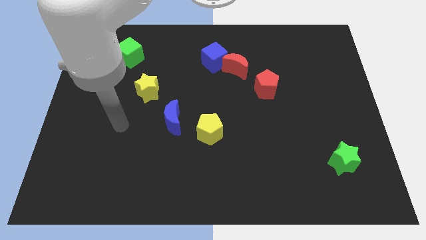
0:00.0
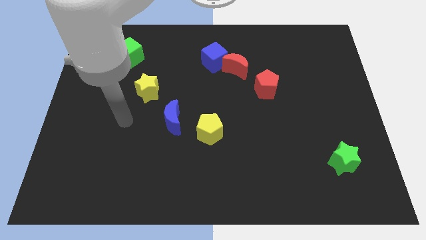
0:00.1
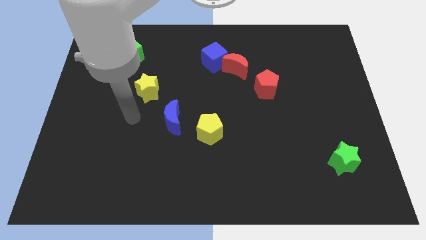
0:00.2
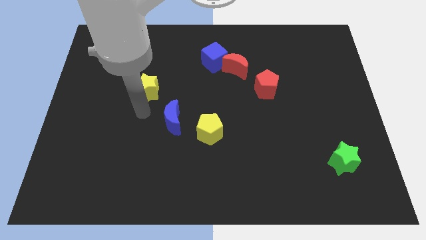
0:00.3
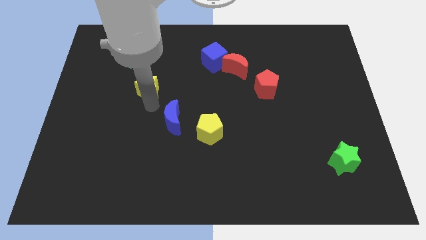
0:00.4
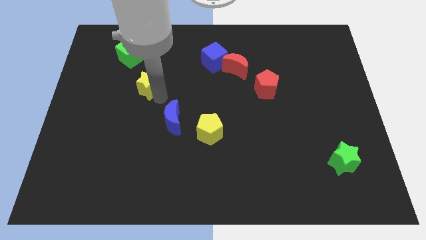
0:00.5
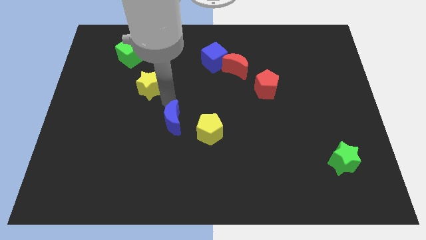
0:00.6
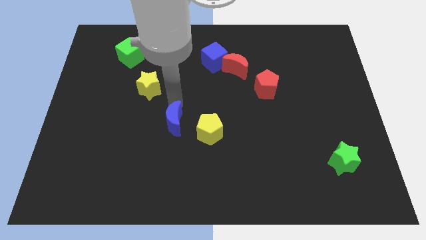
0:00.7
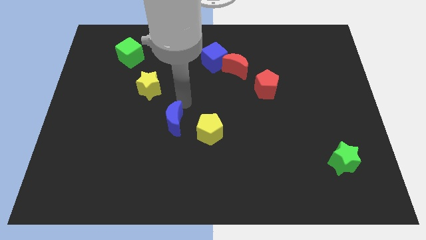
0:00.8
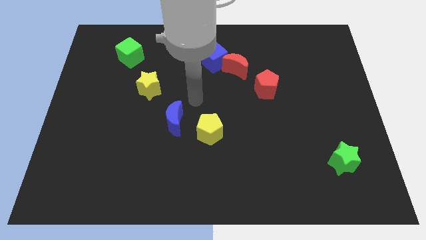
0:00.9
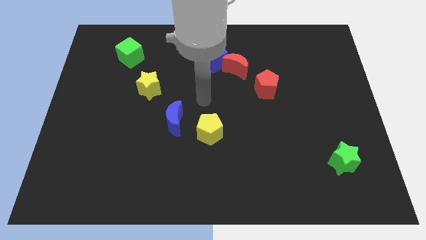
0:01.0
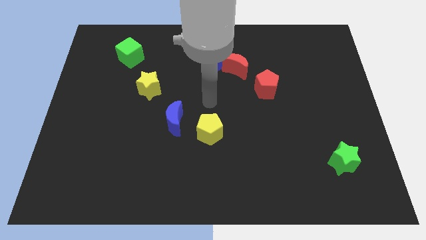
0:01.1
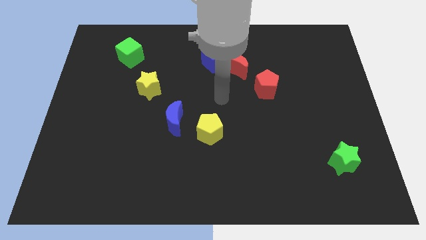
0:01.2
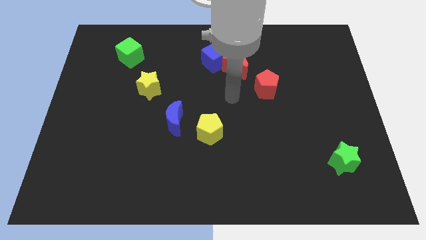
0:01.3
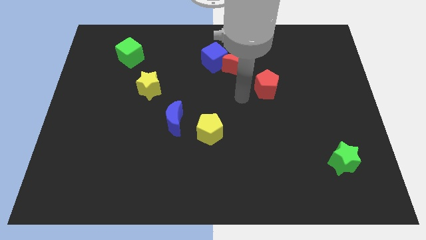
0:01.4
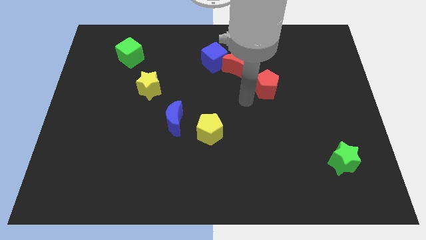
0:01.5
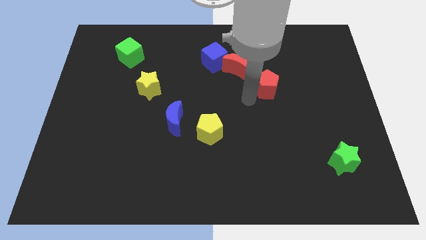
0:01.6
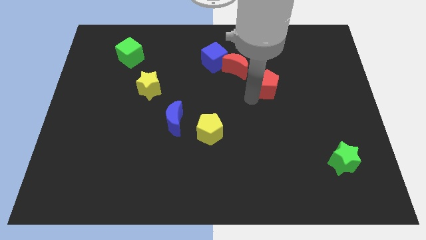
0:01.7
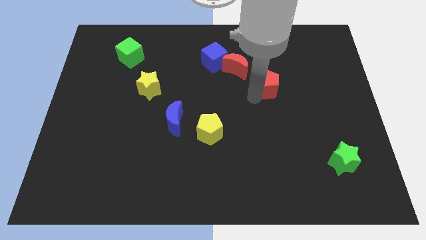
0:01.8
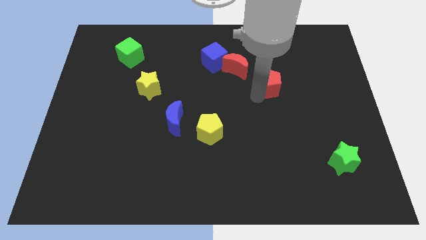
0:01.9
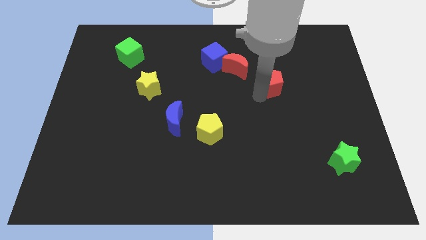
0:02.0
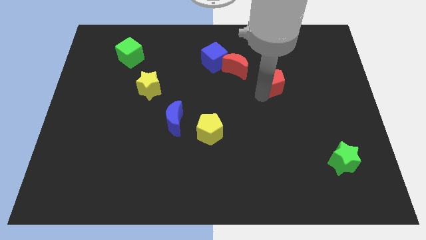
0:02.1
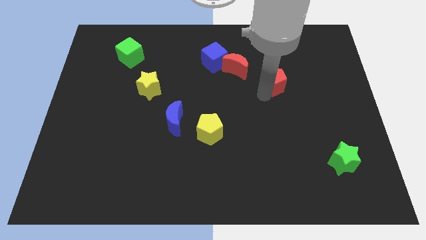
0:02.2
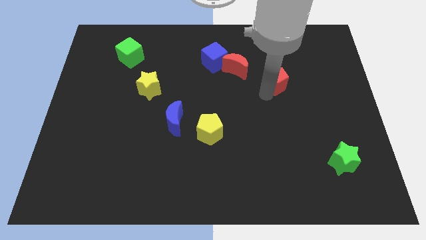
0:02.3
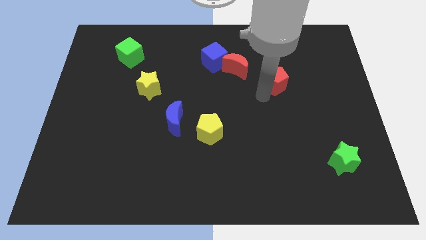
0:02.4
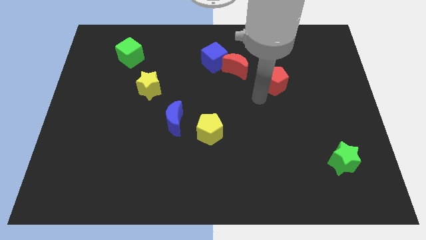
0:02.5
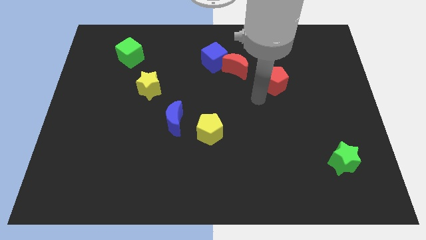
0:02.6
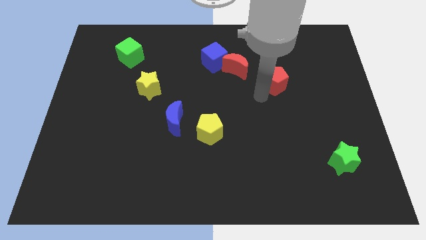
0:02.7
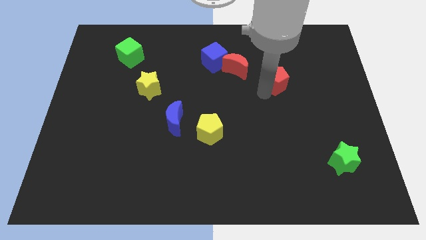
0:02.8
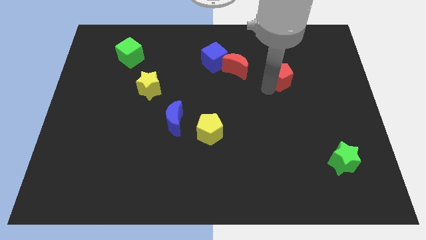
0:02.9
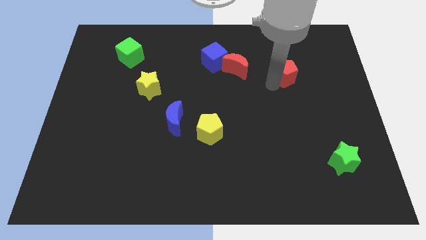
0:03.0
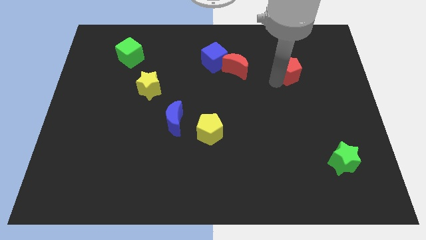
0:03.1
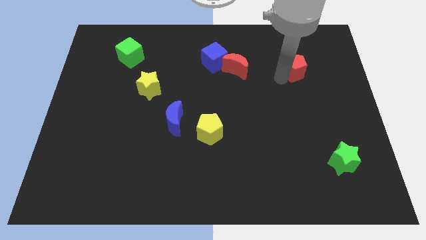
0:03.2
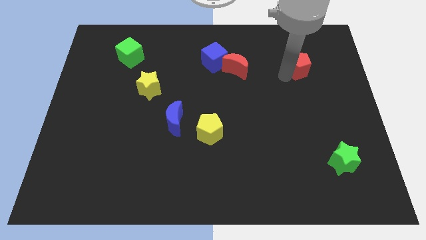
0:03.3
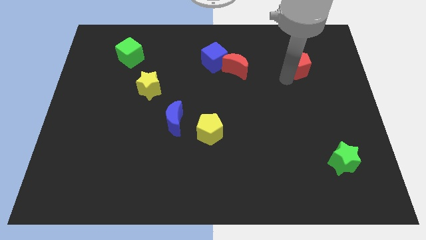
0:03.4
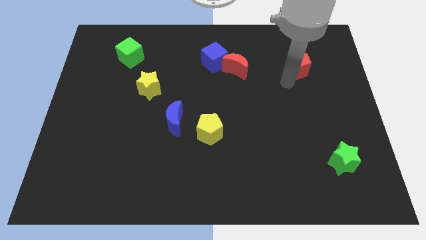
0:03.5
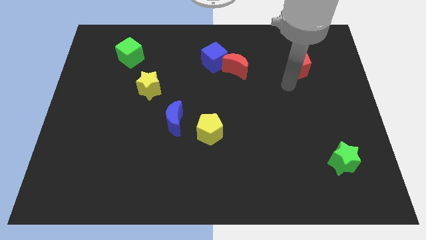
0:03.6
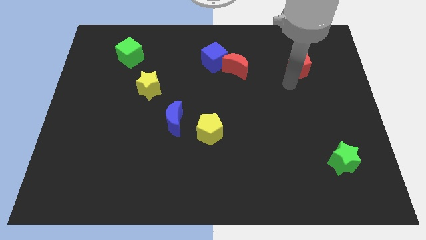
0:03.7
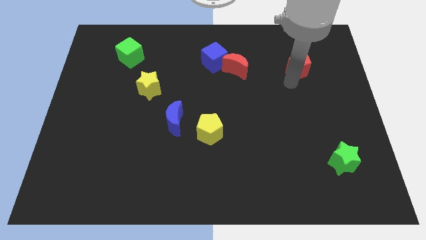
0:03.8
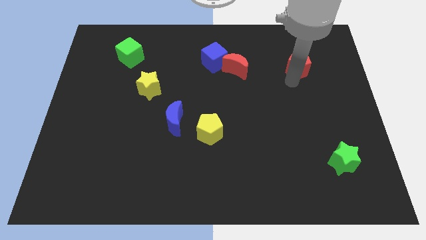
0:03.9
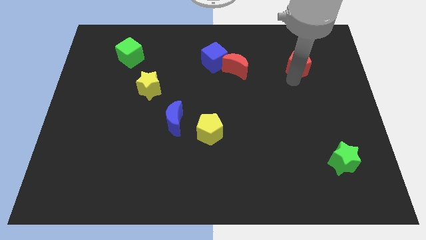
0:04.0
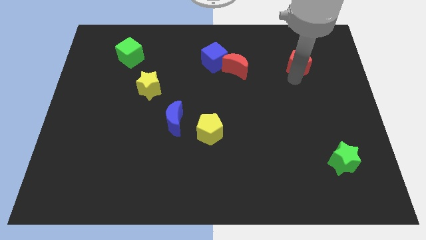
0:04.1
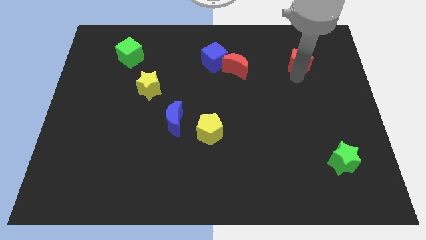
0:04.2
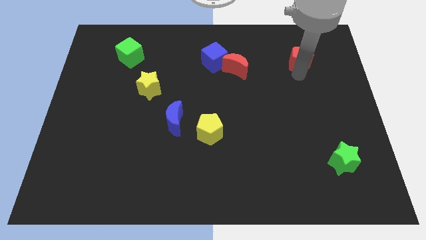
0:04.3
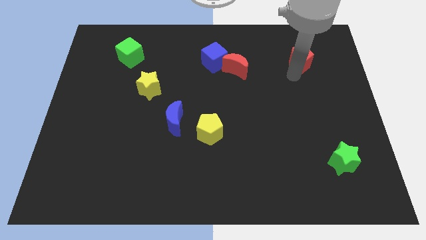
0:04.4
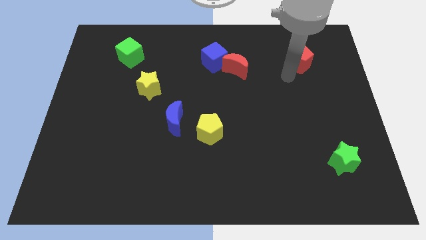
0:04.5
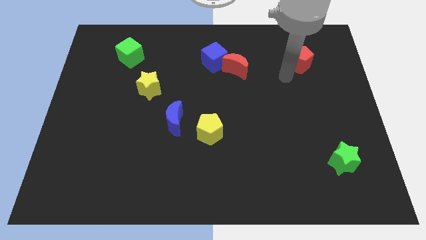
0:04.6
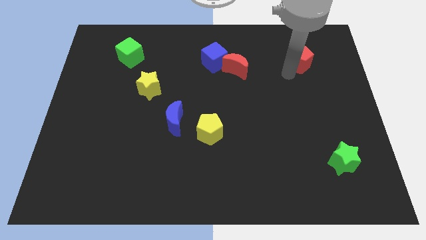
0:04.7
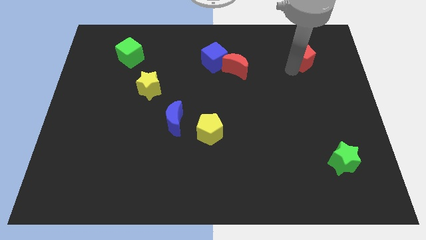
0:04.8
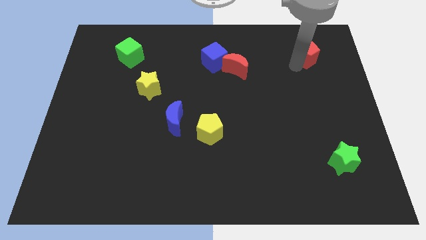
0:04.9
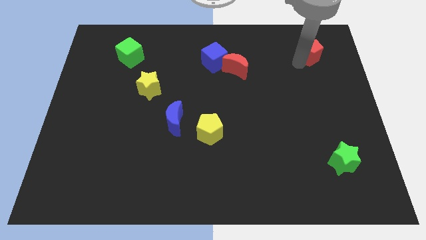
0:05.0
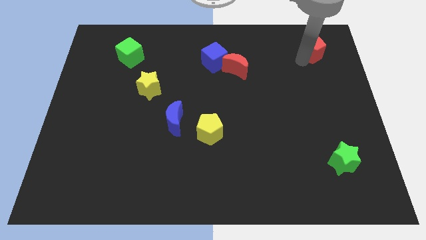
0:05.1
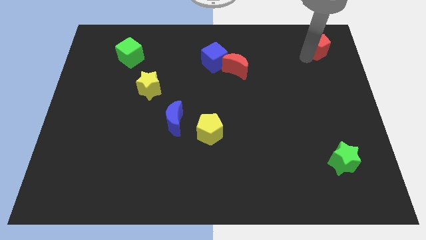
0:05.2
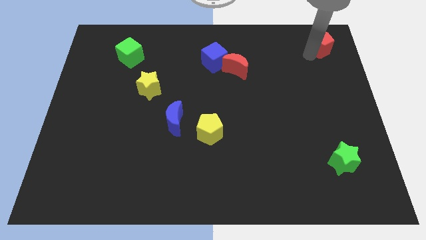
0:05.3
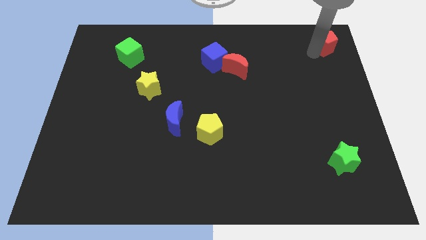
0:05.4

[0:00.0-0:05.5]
put the red pentagon to the upper right corner

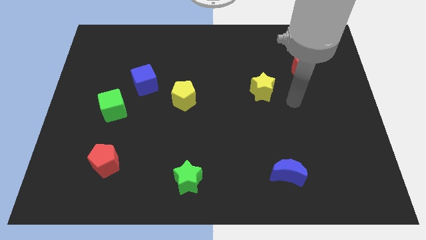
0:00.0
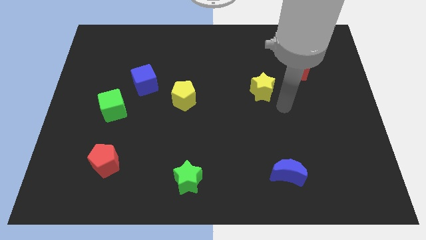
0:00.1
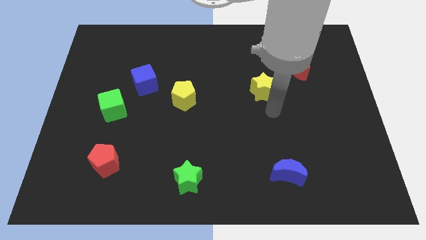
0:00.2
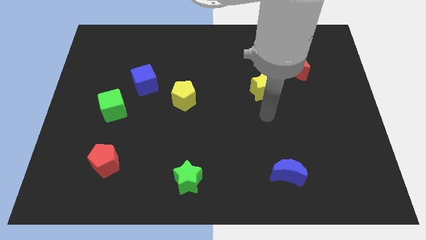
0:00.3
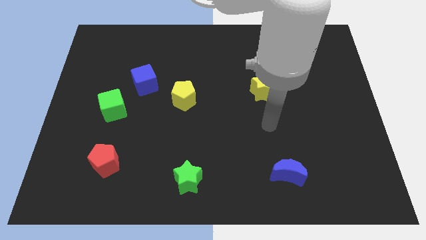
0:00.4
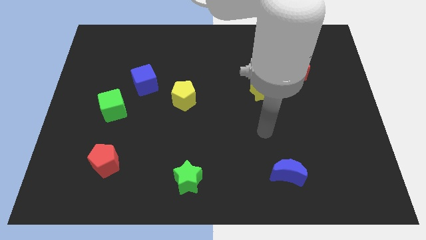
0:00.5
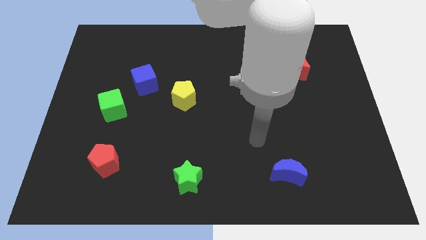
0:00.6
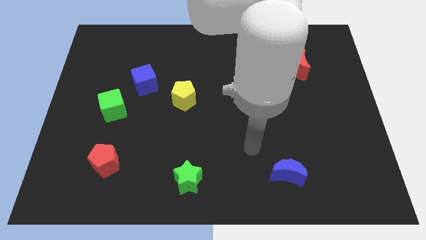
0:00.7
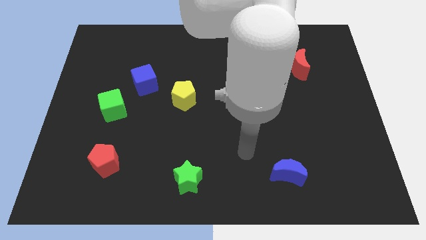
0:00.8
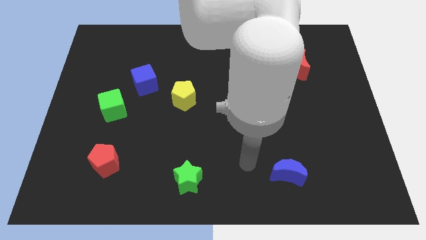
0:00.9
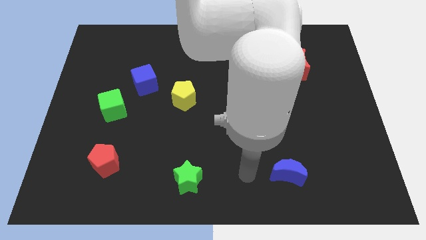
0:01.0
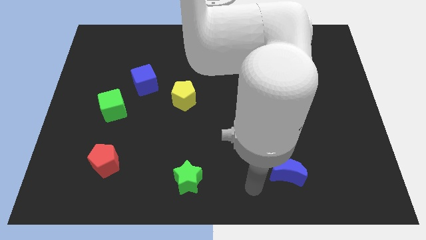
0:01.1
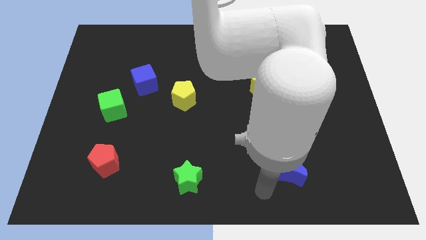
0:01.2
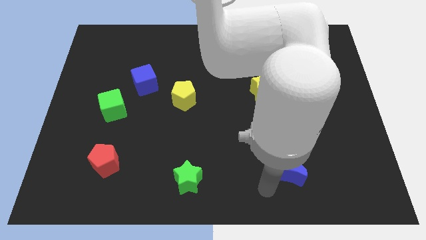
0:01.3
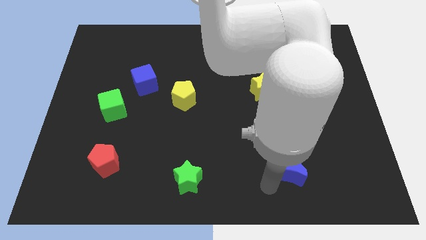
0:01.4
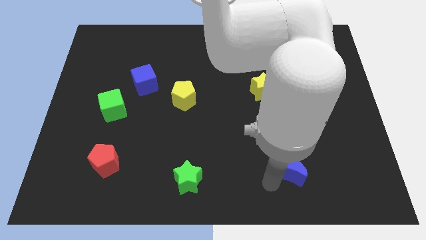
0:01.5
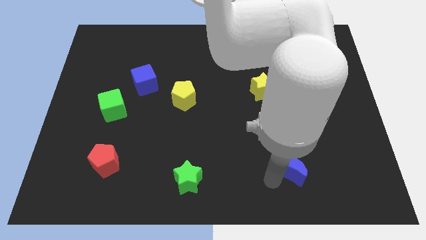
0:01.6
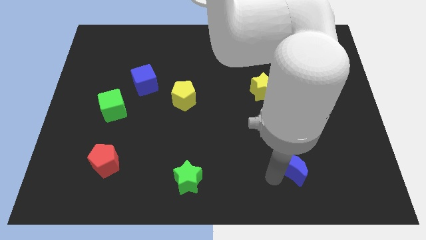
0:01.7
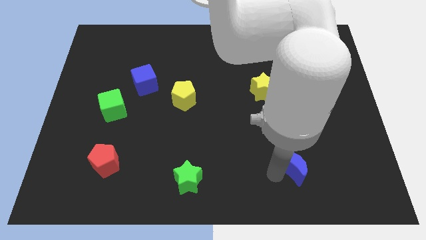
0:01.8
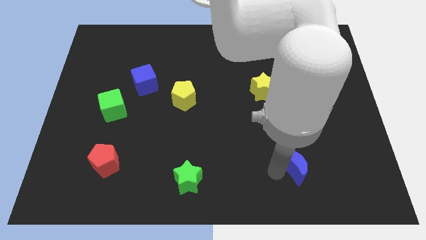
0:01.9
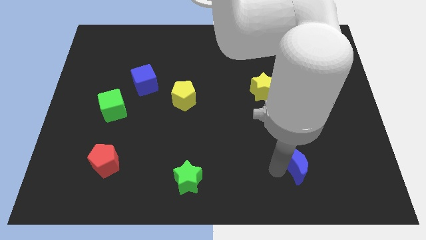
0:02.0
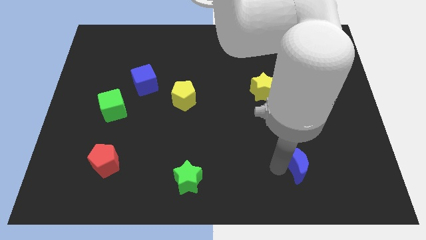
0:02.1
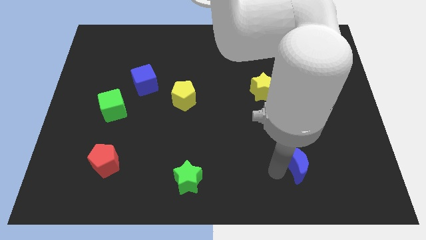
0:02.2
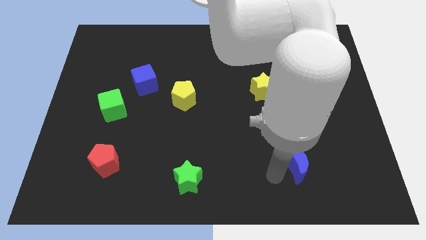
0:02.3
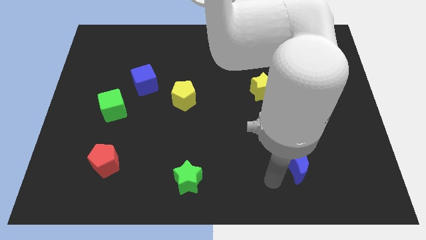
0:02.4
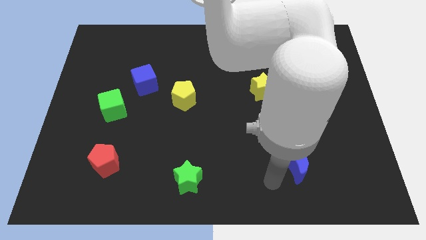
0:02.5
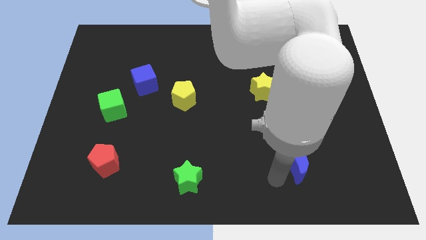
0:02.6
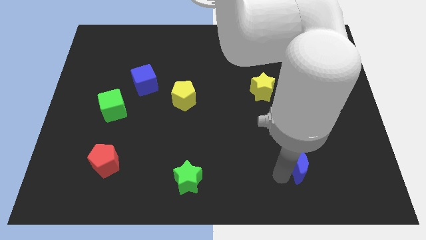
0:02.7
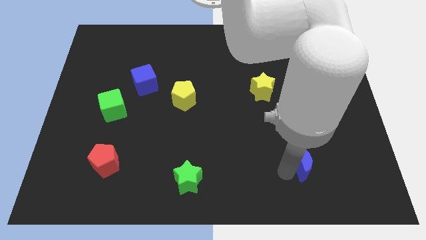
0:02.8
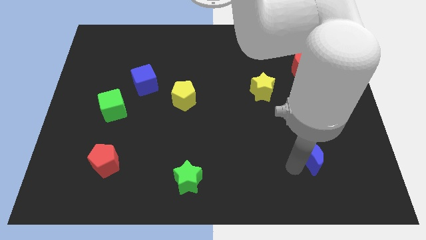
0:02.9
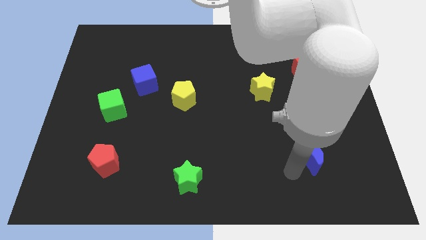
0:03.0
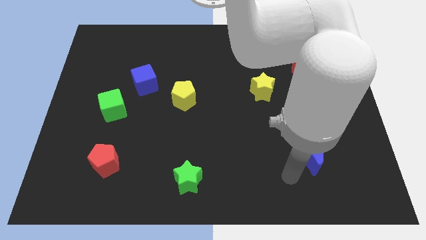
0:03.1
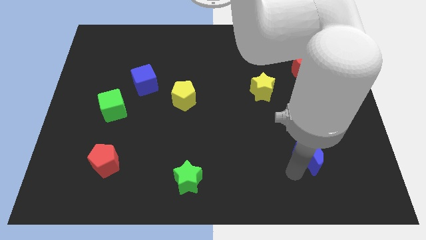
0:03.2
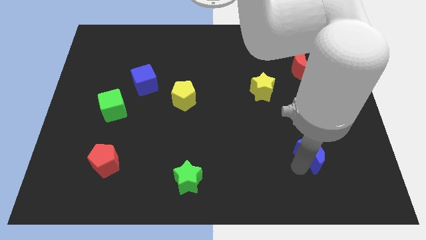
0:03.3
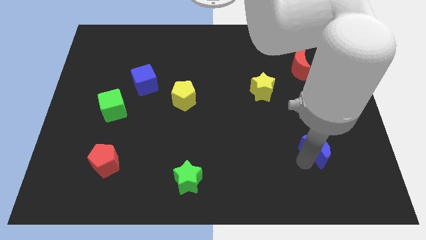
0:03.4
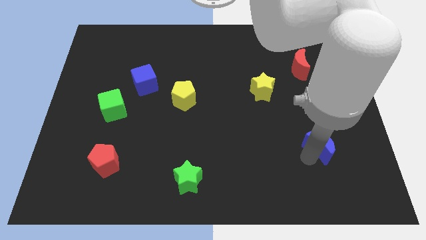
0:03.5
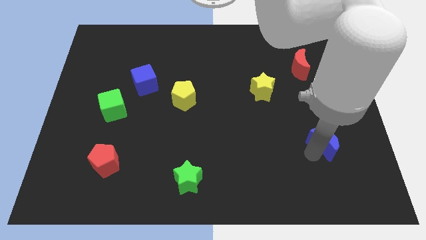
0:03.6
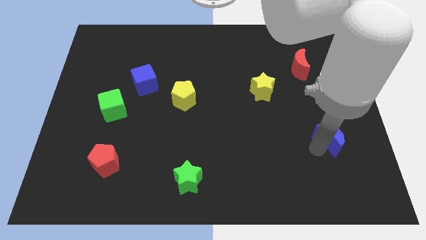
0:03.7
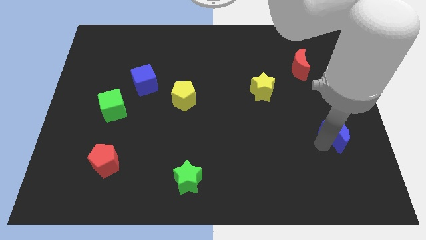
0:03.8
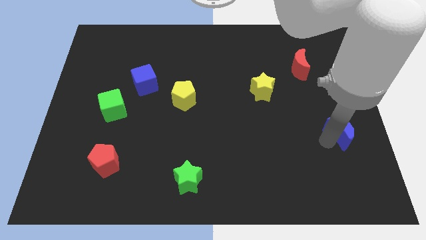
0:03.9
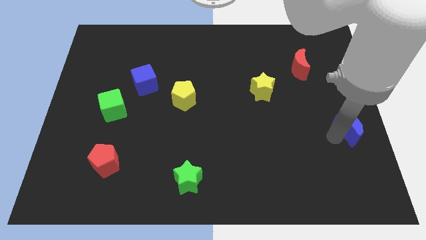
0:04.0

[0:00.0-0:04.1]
put the blue moon to the right side of the board
